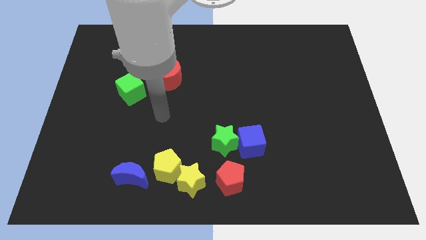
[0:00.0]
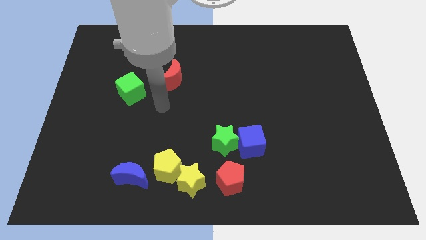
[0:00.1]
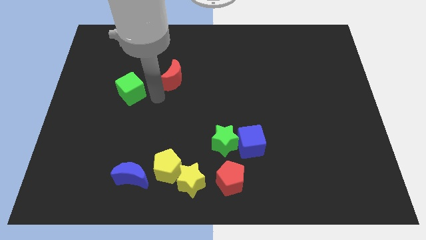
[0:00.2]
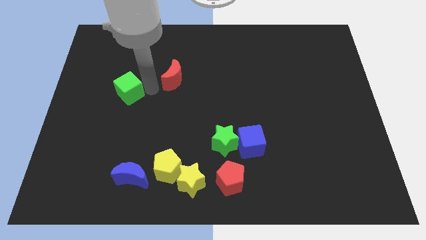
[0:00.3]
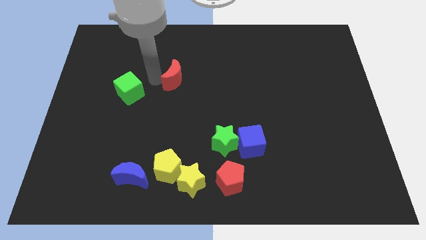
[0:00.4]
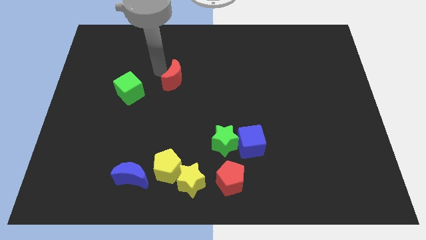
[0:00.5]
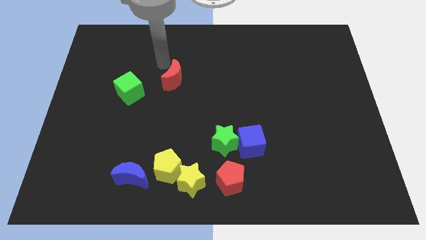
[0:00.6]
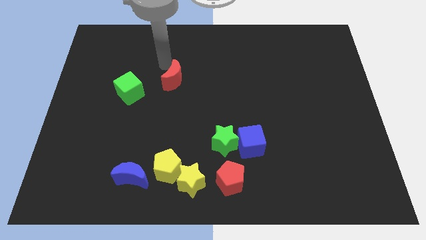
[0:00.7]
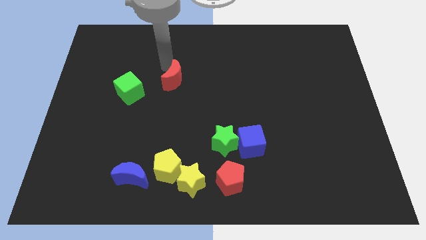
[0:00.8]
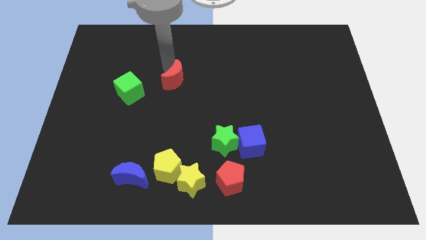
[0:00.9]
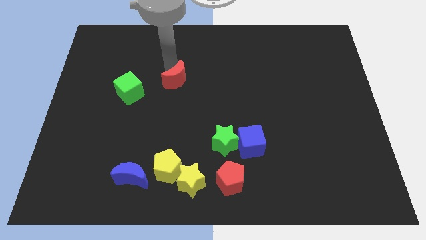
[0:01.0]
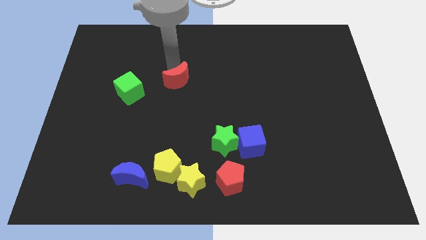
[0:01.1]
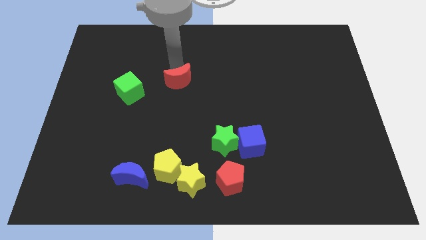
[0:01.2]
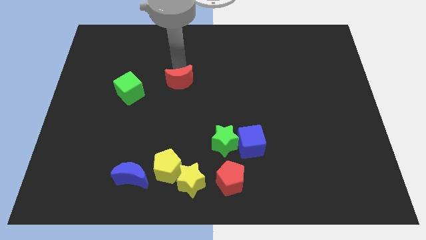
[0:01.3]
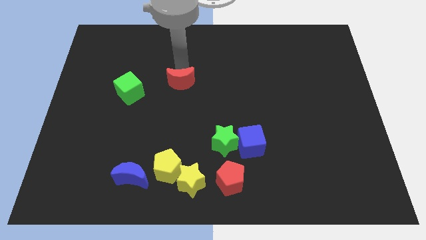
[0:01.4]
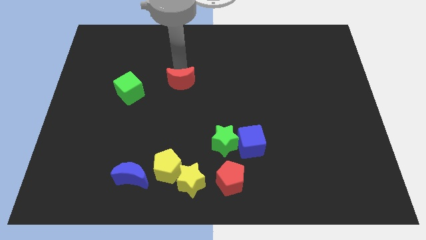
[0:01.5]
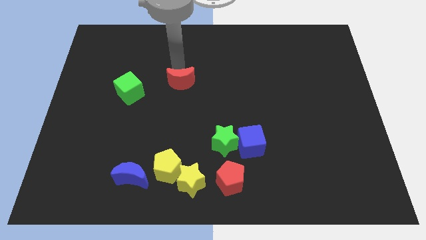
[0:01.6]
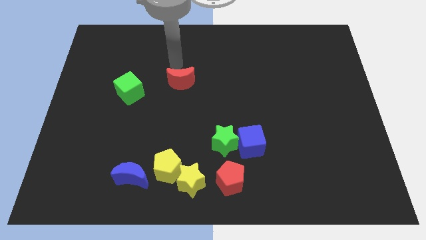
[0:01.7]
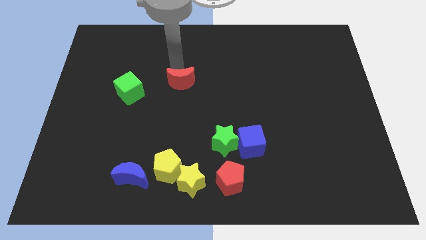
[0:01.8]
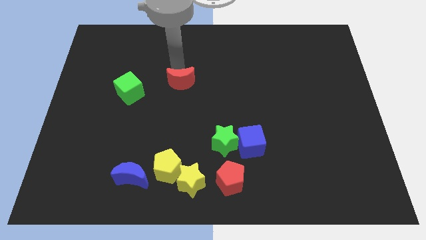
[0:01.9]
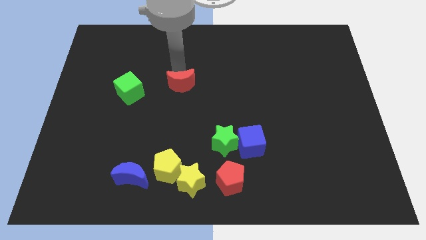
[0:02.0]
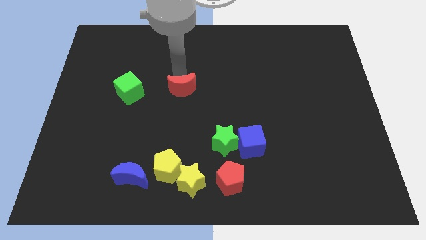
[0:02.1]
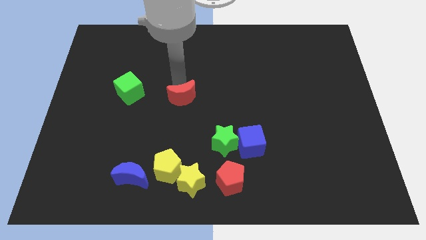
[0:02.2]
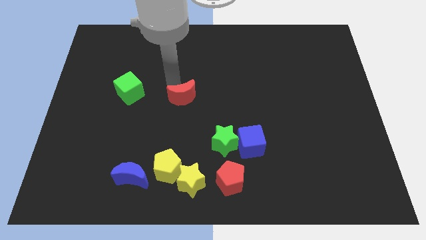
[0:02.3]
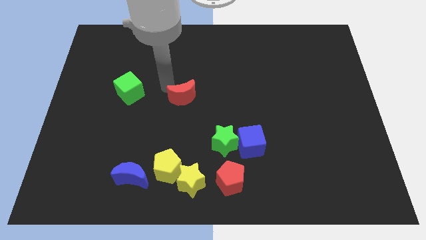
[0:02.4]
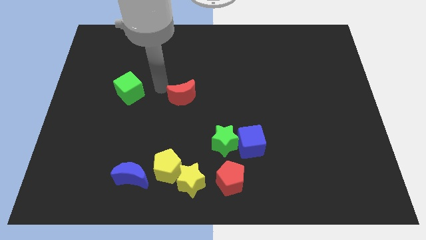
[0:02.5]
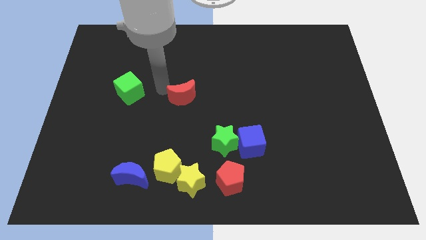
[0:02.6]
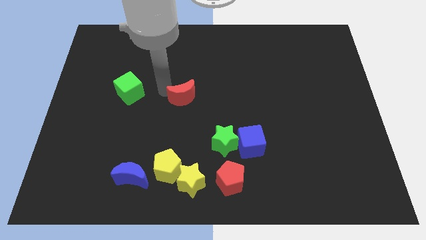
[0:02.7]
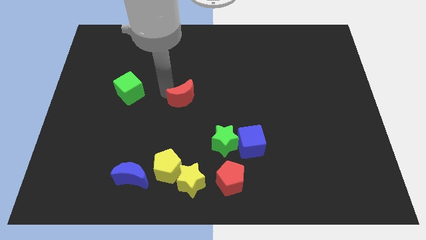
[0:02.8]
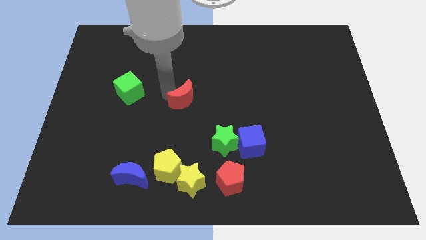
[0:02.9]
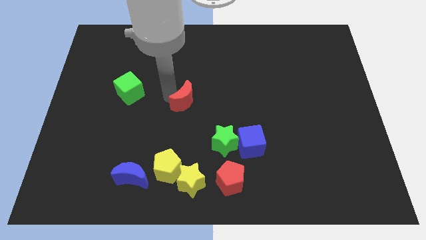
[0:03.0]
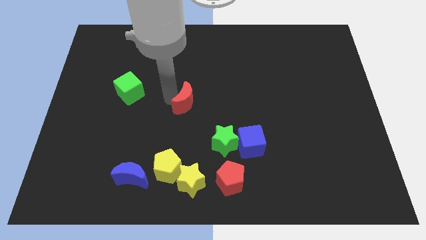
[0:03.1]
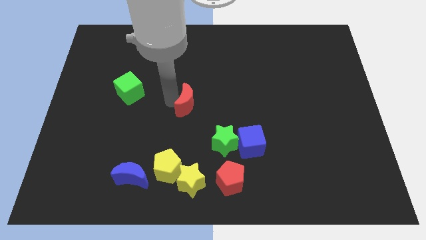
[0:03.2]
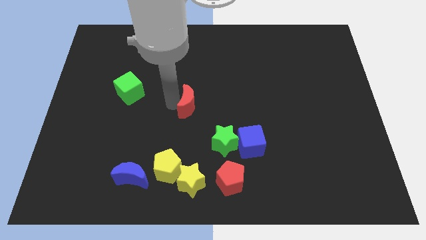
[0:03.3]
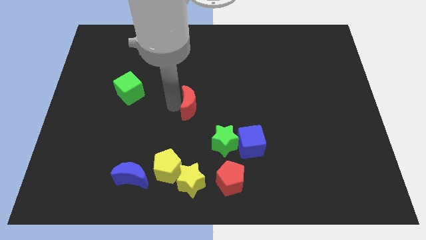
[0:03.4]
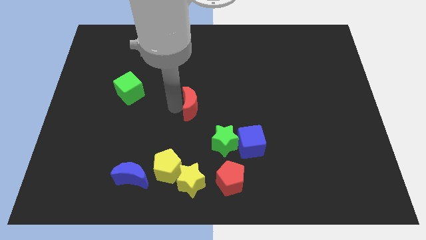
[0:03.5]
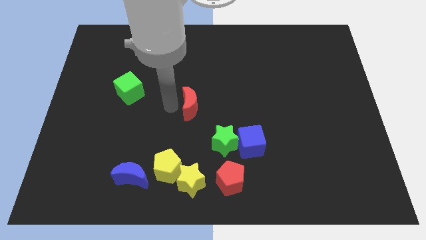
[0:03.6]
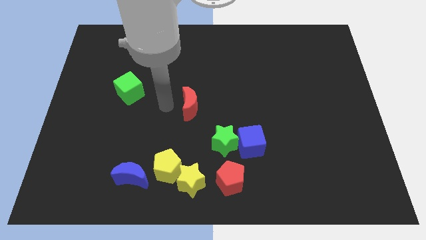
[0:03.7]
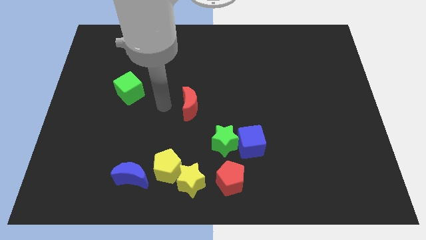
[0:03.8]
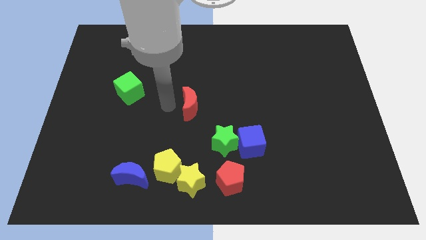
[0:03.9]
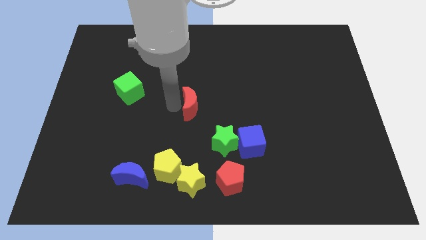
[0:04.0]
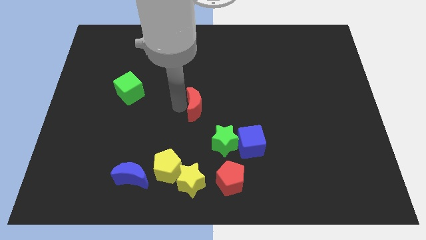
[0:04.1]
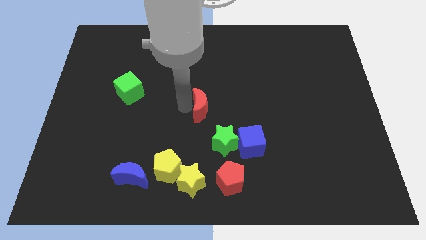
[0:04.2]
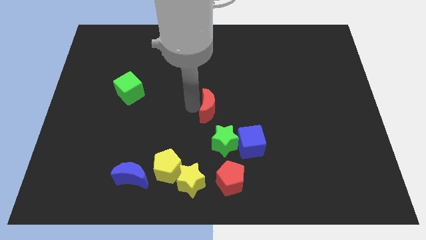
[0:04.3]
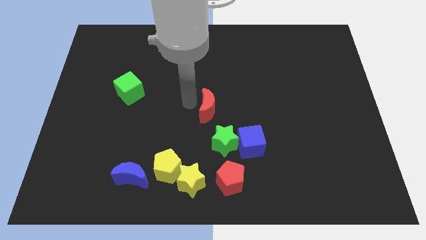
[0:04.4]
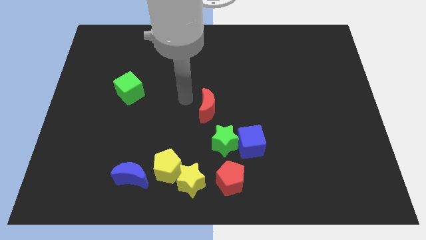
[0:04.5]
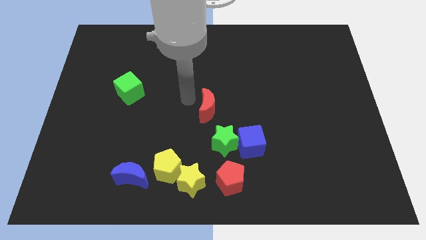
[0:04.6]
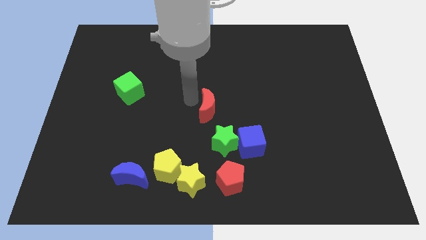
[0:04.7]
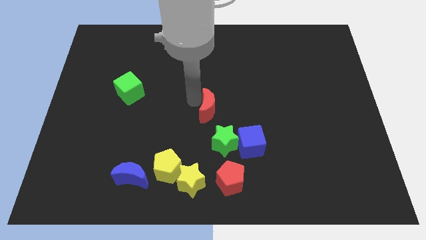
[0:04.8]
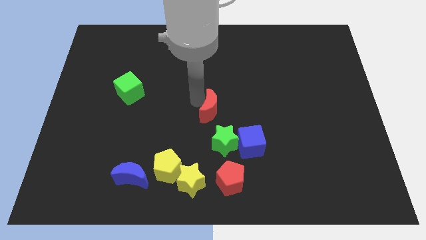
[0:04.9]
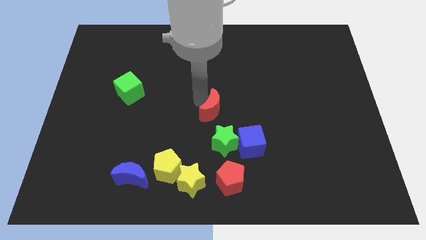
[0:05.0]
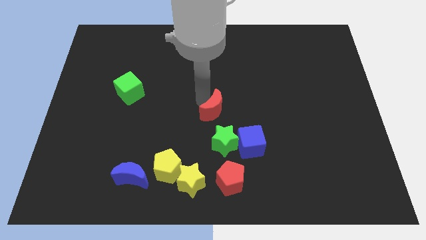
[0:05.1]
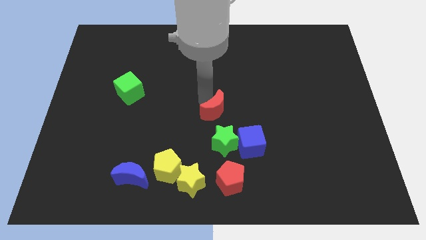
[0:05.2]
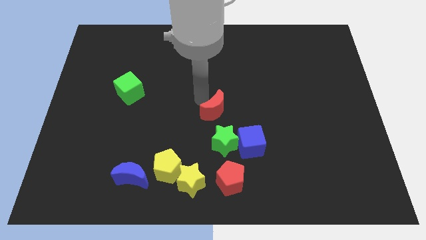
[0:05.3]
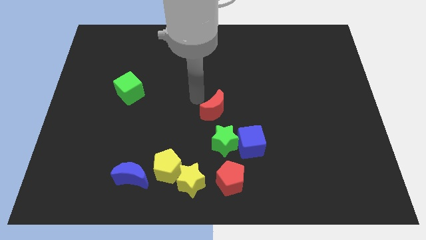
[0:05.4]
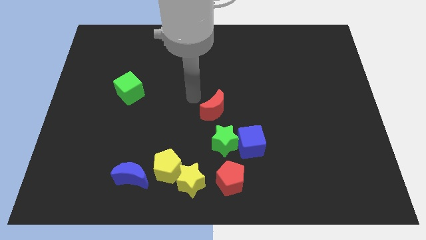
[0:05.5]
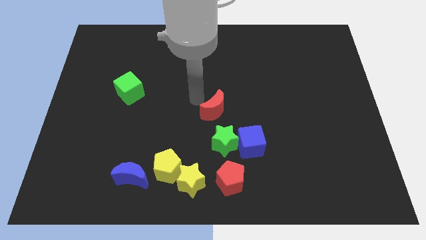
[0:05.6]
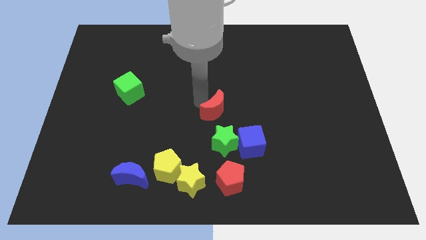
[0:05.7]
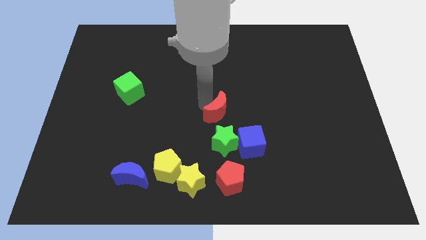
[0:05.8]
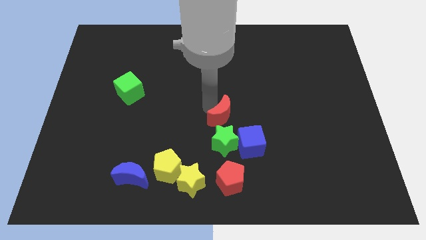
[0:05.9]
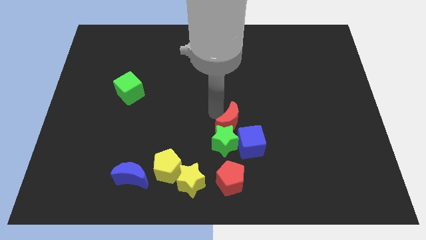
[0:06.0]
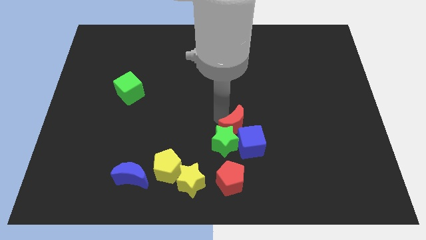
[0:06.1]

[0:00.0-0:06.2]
move the red moon downwards and then to the right

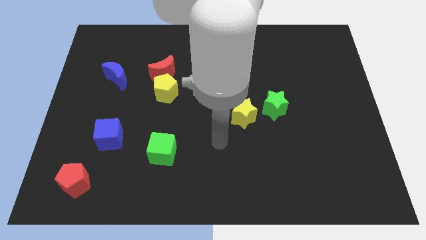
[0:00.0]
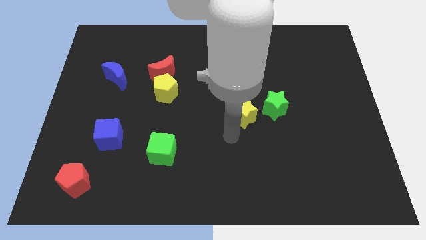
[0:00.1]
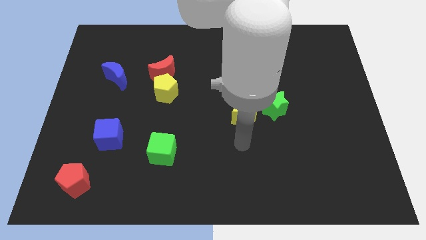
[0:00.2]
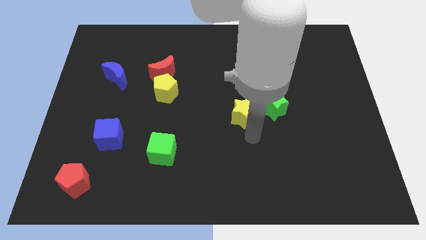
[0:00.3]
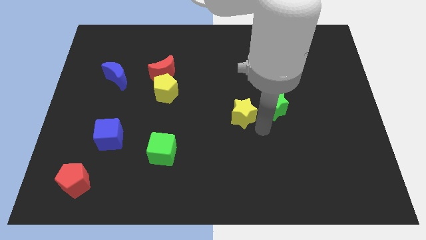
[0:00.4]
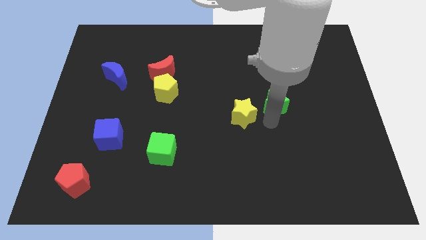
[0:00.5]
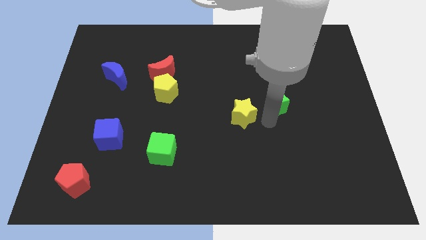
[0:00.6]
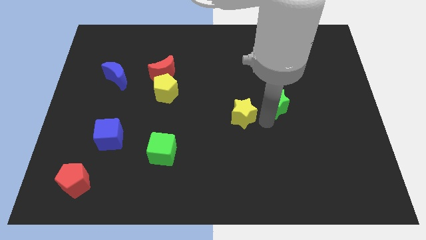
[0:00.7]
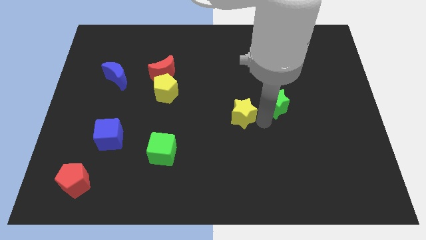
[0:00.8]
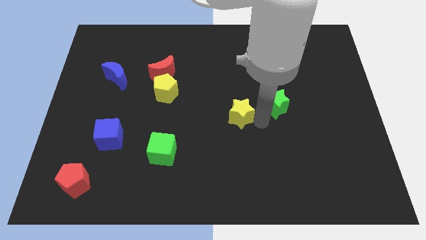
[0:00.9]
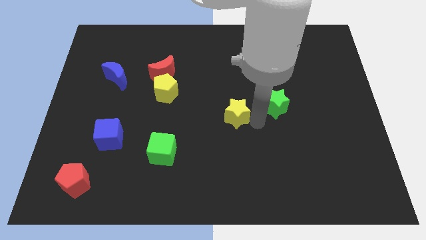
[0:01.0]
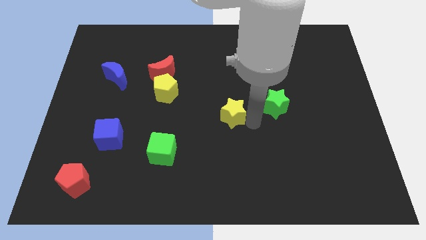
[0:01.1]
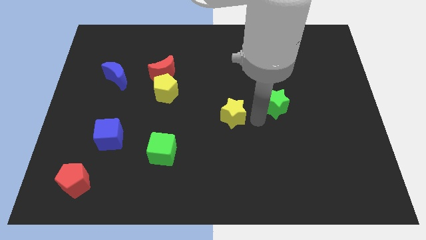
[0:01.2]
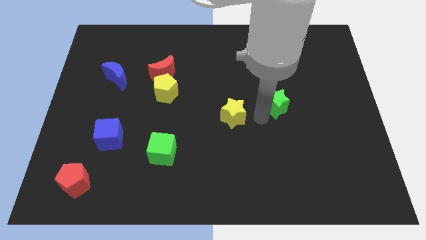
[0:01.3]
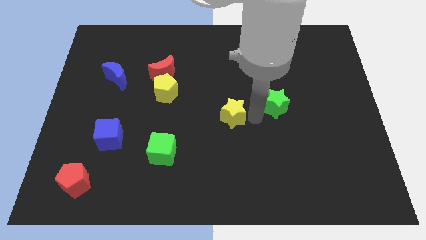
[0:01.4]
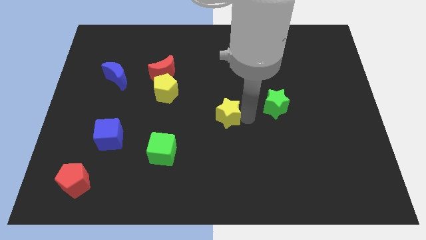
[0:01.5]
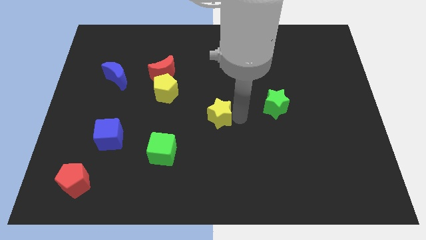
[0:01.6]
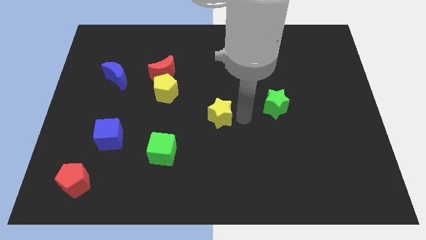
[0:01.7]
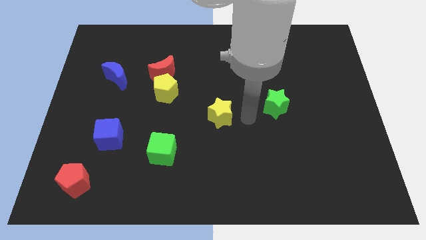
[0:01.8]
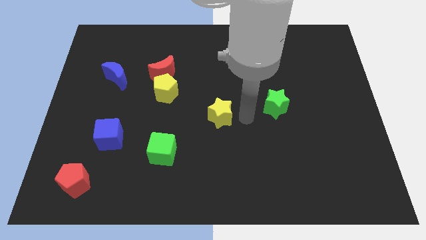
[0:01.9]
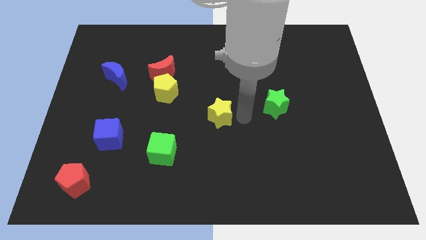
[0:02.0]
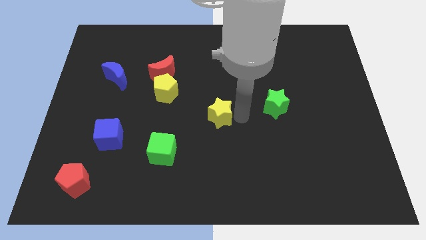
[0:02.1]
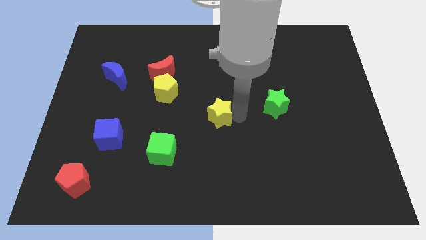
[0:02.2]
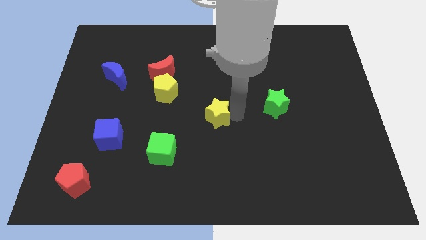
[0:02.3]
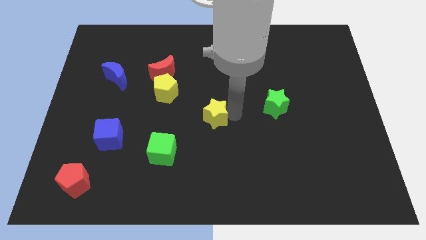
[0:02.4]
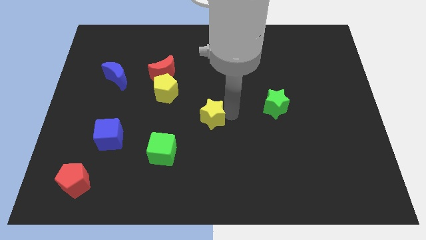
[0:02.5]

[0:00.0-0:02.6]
slightly push the yellow star to the left
